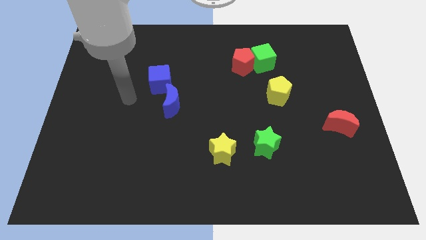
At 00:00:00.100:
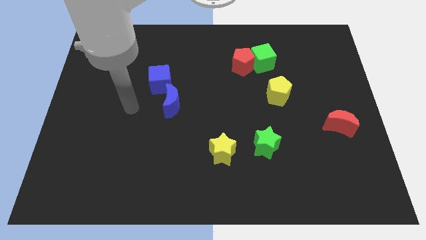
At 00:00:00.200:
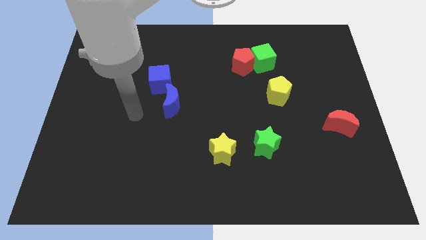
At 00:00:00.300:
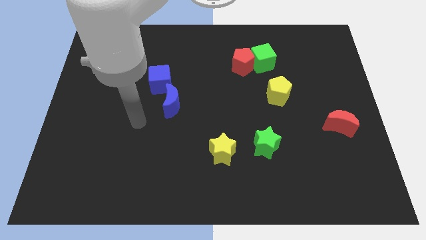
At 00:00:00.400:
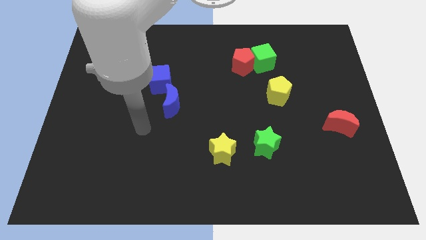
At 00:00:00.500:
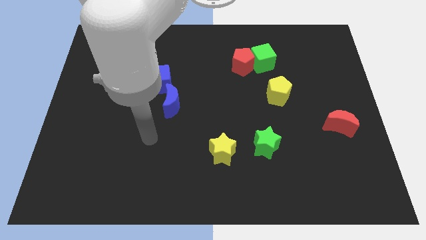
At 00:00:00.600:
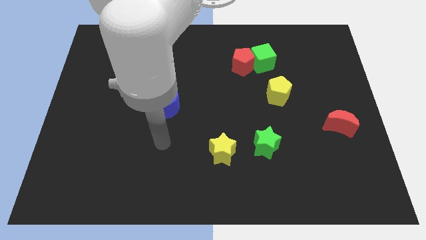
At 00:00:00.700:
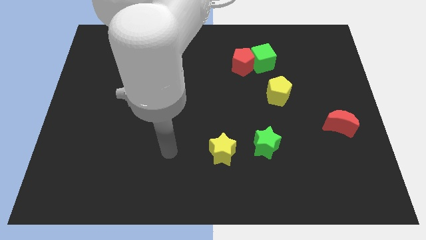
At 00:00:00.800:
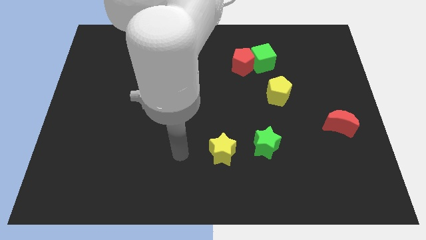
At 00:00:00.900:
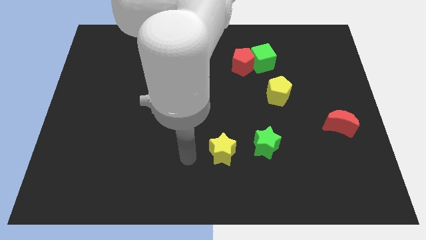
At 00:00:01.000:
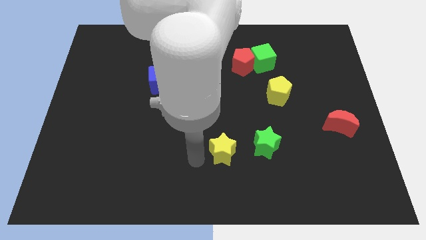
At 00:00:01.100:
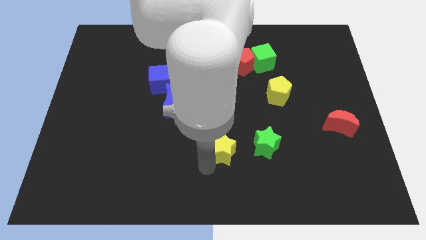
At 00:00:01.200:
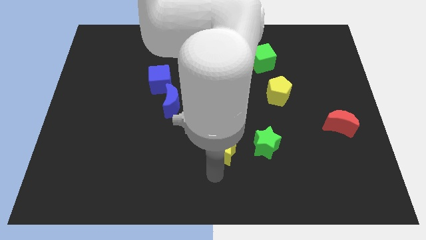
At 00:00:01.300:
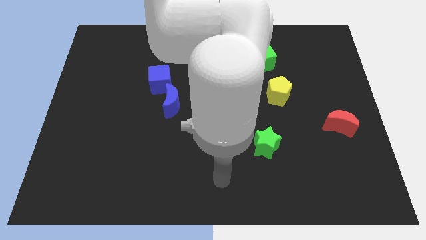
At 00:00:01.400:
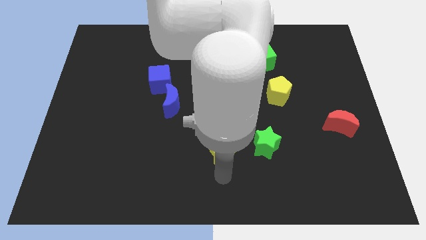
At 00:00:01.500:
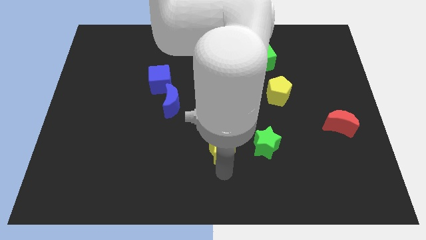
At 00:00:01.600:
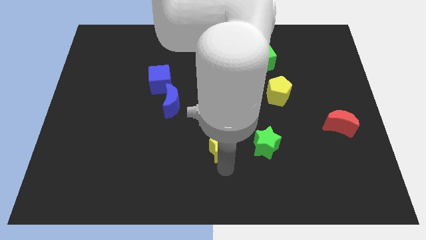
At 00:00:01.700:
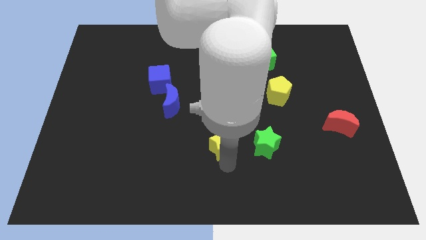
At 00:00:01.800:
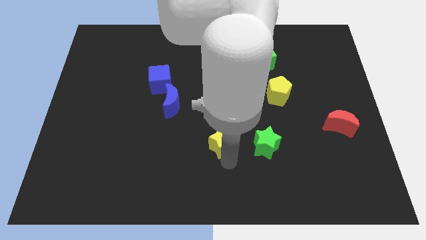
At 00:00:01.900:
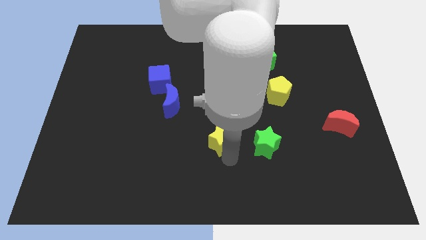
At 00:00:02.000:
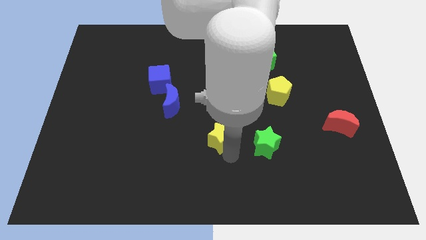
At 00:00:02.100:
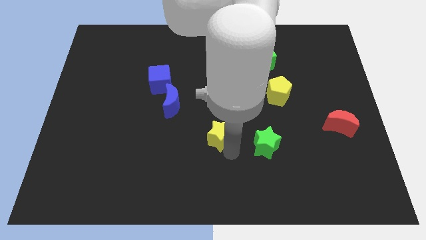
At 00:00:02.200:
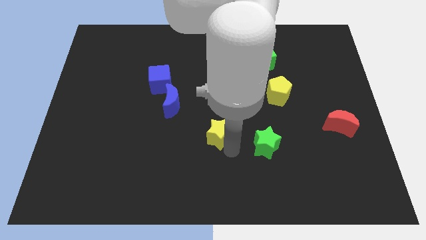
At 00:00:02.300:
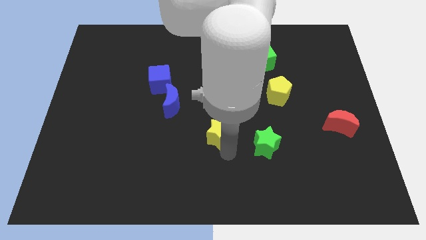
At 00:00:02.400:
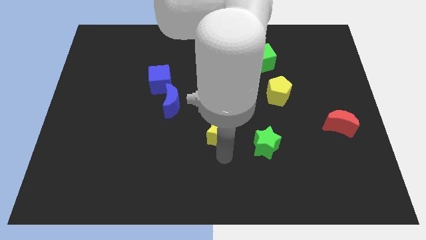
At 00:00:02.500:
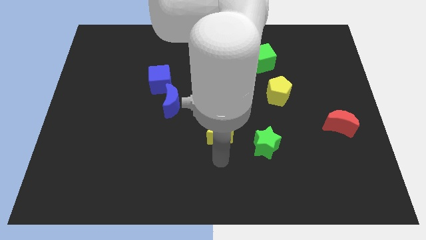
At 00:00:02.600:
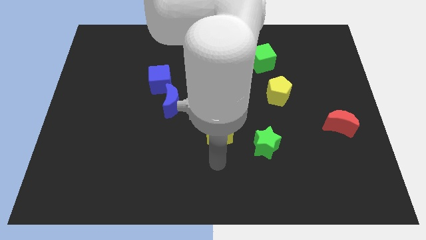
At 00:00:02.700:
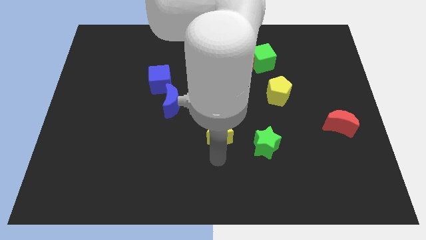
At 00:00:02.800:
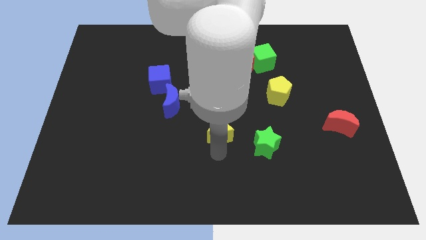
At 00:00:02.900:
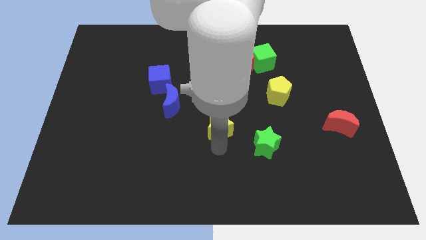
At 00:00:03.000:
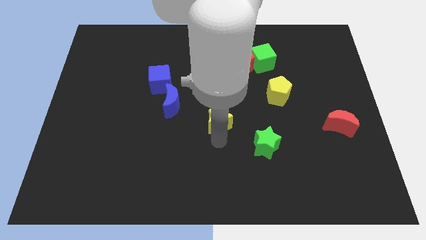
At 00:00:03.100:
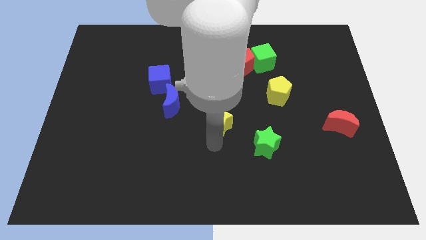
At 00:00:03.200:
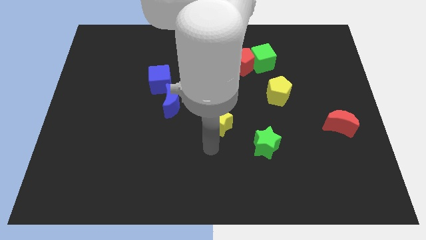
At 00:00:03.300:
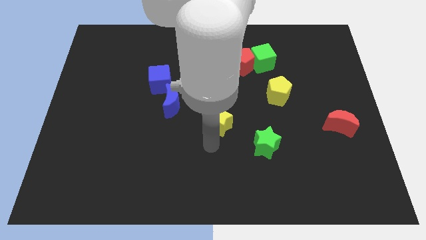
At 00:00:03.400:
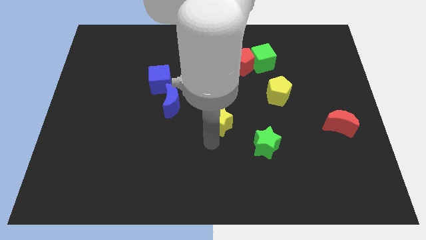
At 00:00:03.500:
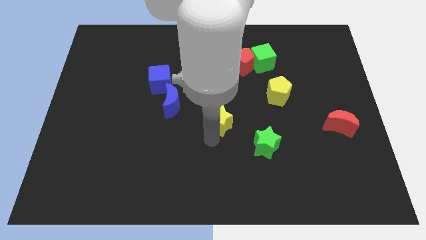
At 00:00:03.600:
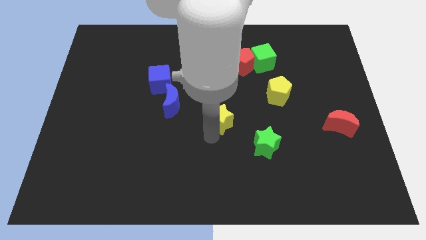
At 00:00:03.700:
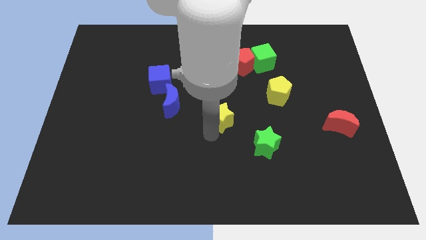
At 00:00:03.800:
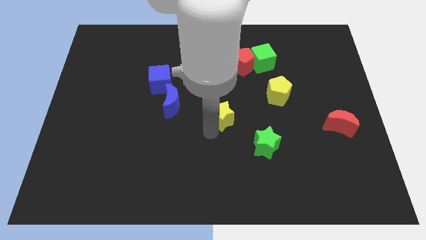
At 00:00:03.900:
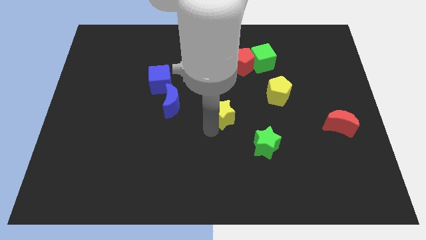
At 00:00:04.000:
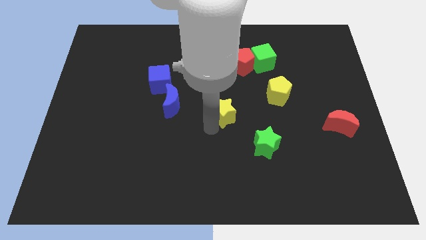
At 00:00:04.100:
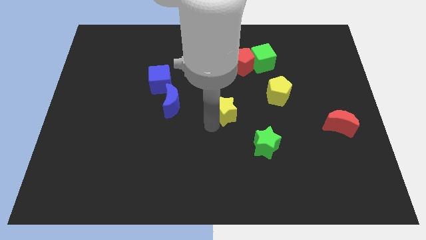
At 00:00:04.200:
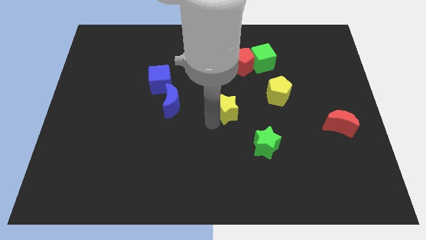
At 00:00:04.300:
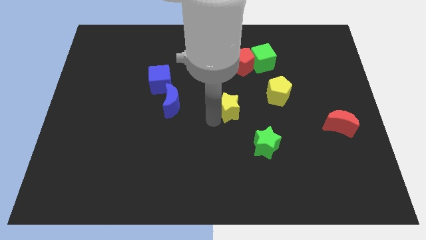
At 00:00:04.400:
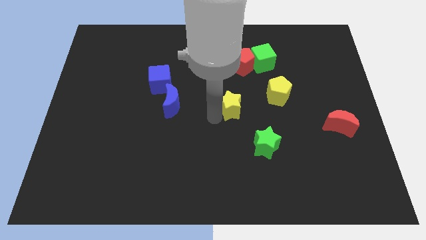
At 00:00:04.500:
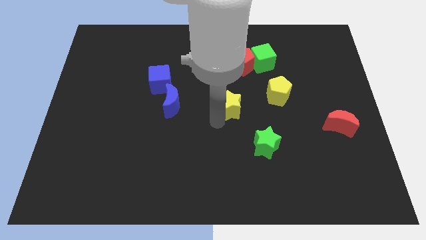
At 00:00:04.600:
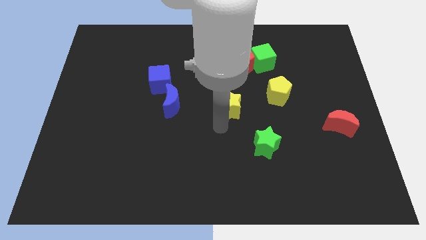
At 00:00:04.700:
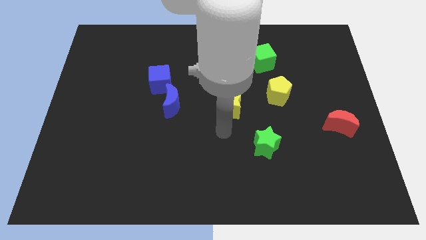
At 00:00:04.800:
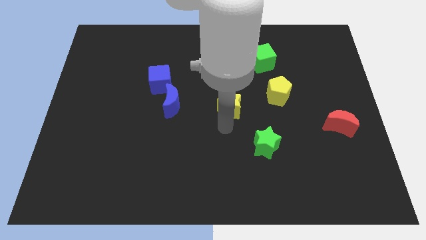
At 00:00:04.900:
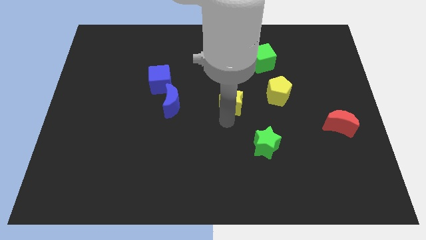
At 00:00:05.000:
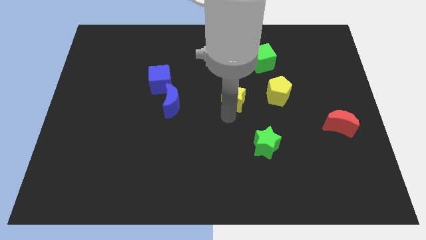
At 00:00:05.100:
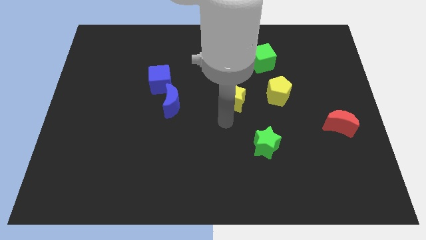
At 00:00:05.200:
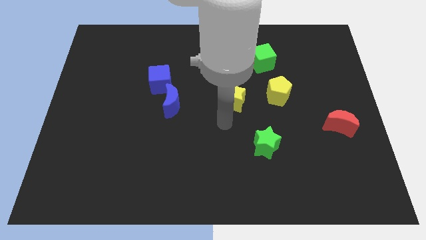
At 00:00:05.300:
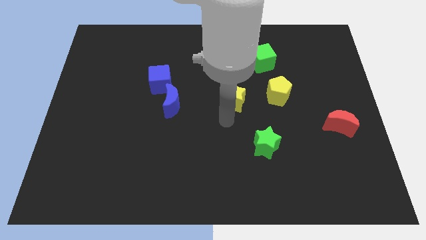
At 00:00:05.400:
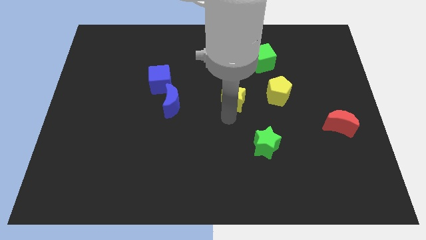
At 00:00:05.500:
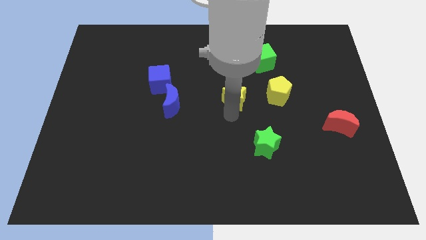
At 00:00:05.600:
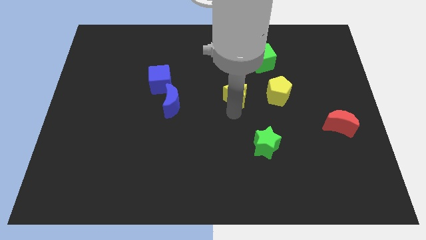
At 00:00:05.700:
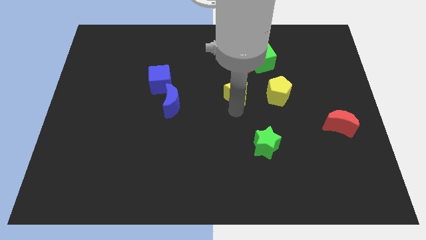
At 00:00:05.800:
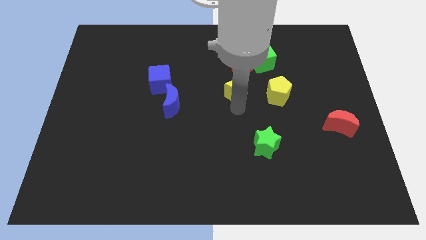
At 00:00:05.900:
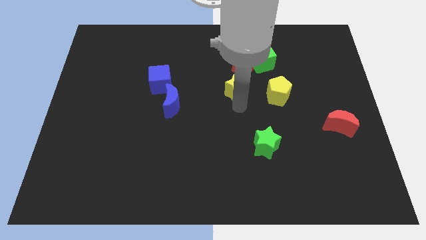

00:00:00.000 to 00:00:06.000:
slide the yellow star diagonally down and to the left of the green cube

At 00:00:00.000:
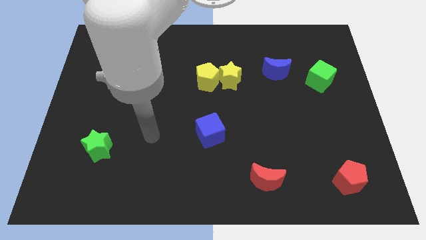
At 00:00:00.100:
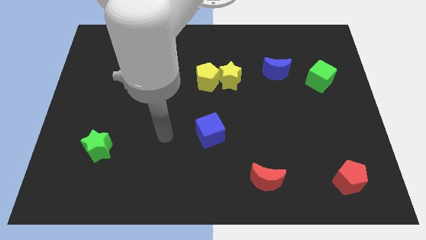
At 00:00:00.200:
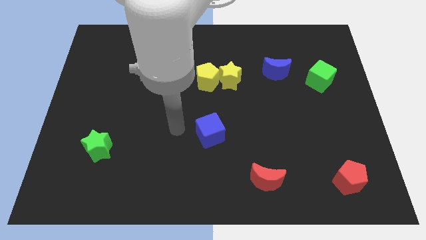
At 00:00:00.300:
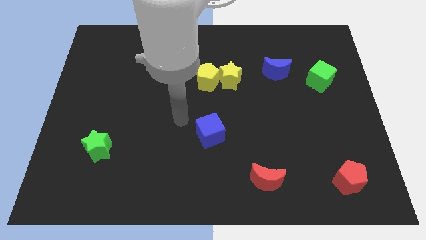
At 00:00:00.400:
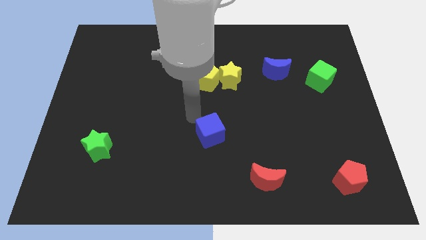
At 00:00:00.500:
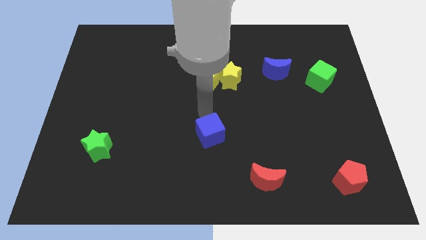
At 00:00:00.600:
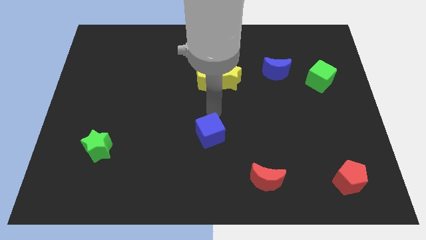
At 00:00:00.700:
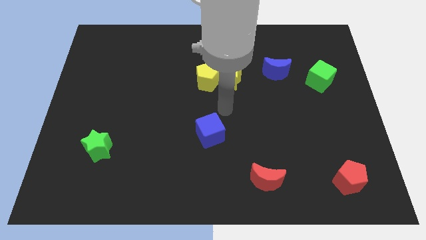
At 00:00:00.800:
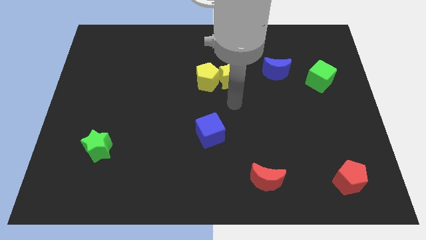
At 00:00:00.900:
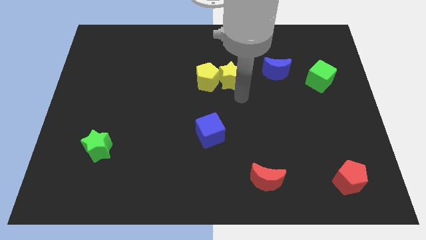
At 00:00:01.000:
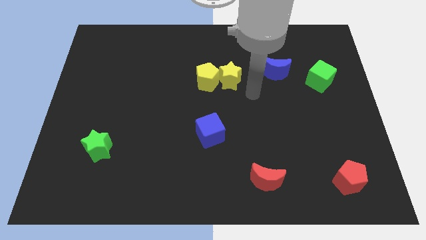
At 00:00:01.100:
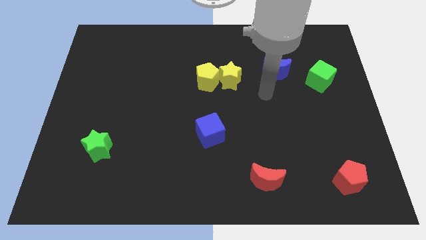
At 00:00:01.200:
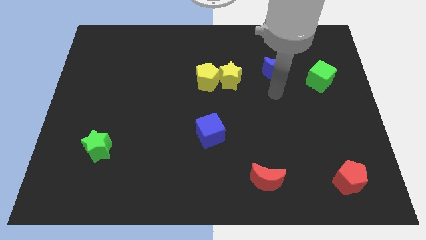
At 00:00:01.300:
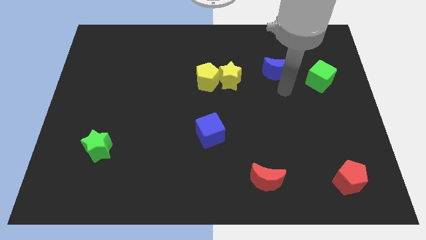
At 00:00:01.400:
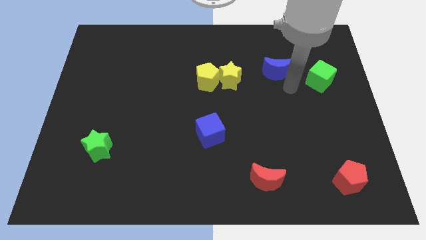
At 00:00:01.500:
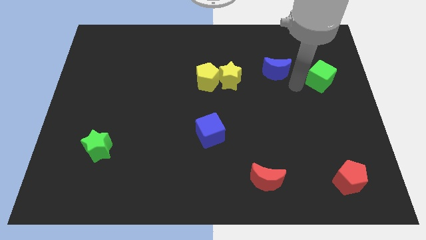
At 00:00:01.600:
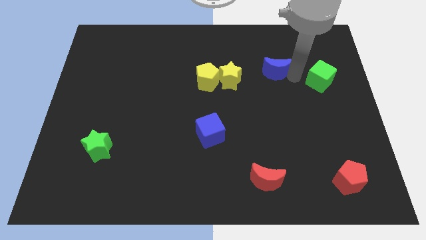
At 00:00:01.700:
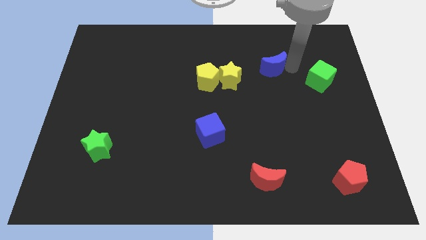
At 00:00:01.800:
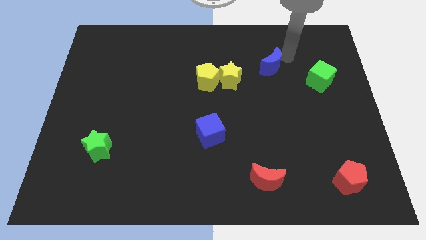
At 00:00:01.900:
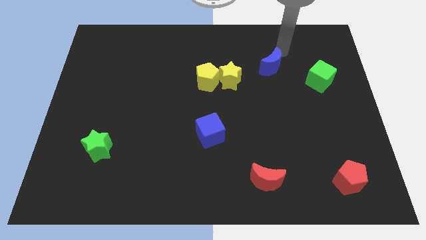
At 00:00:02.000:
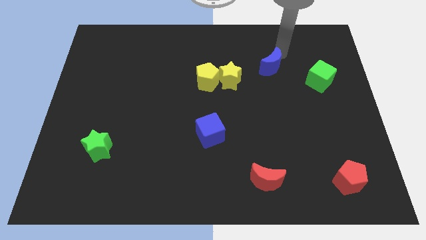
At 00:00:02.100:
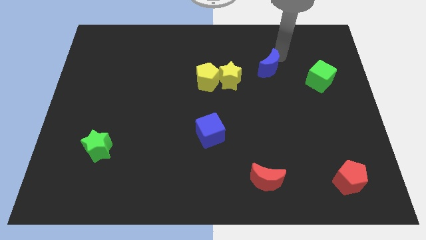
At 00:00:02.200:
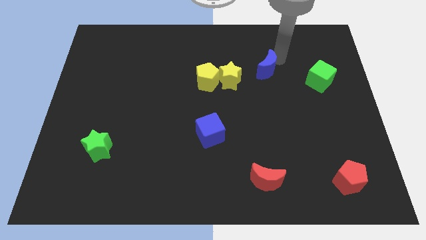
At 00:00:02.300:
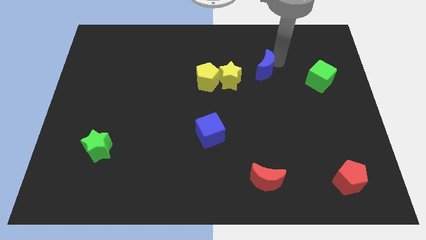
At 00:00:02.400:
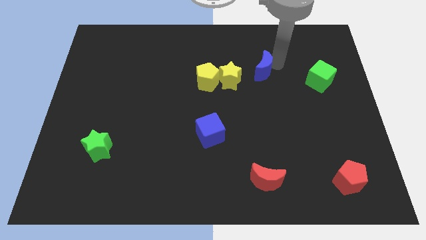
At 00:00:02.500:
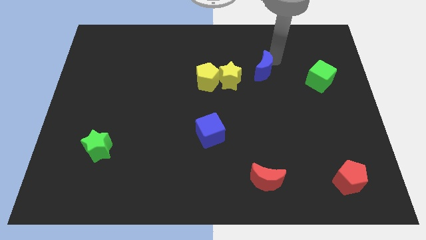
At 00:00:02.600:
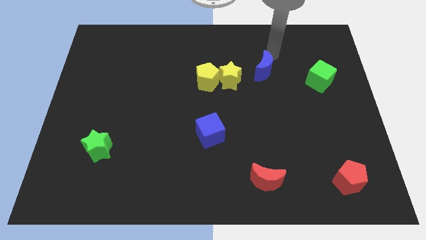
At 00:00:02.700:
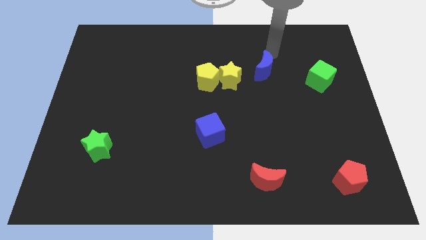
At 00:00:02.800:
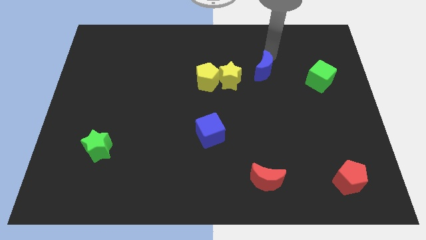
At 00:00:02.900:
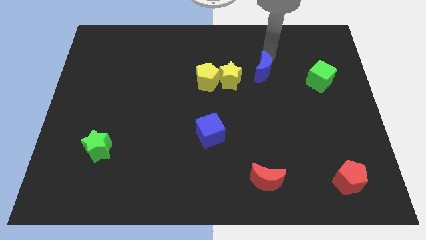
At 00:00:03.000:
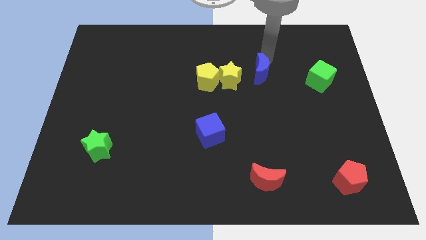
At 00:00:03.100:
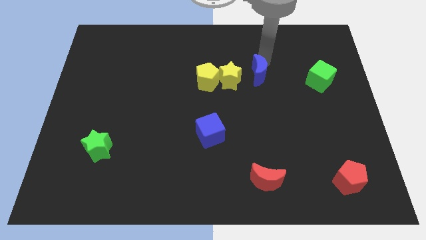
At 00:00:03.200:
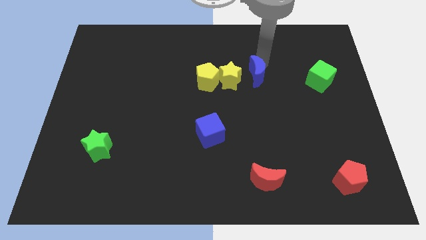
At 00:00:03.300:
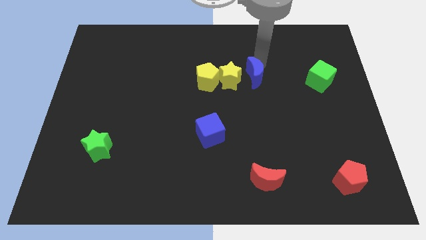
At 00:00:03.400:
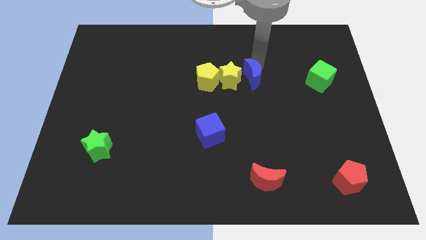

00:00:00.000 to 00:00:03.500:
push the blue moon diagonally down and to the right of the yellow star
